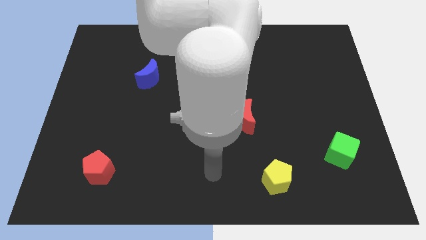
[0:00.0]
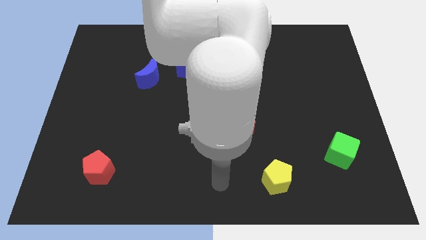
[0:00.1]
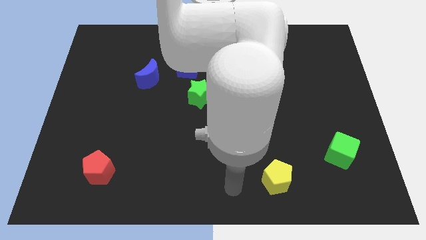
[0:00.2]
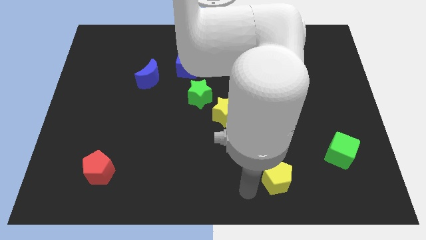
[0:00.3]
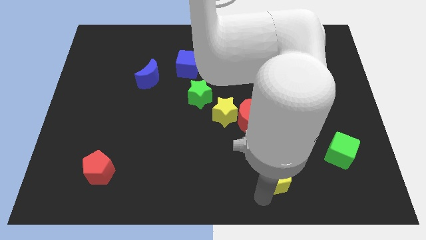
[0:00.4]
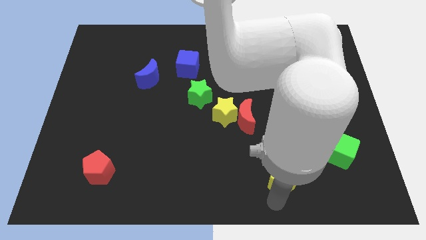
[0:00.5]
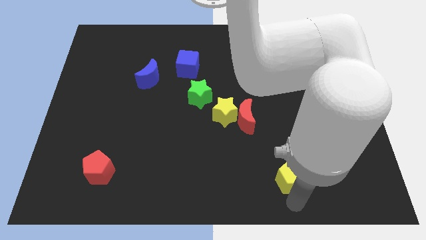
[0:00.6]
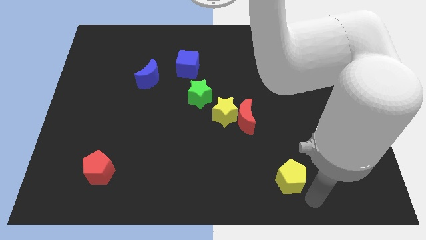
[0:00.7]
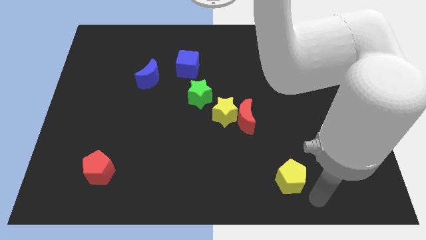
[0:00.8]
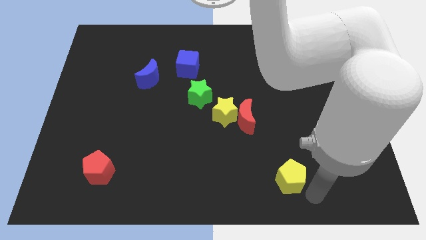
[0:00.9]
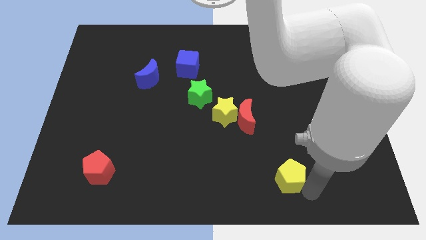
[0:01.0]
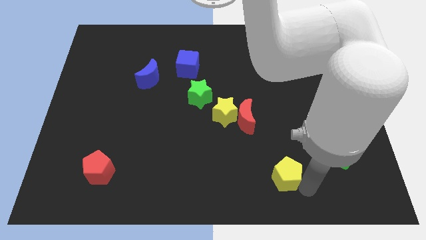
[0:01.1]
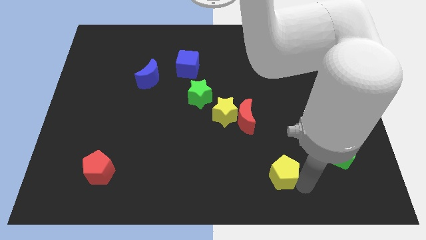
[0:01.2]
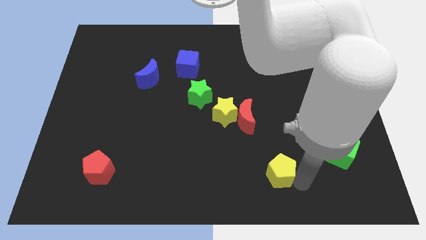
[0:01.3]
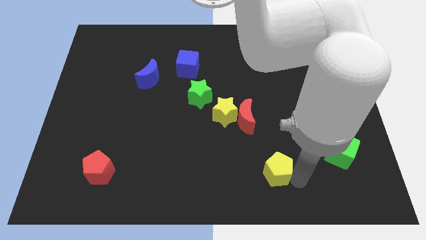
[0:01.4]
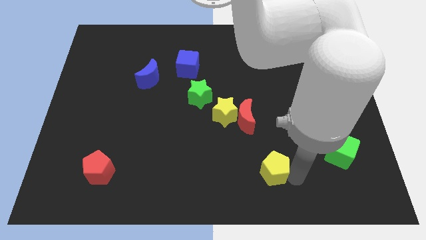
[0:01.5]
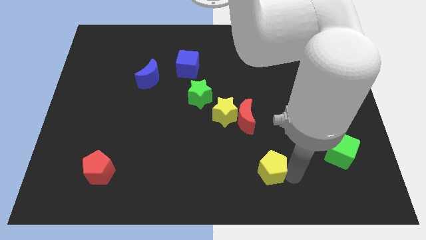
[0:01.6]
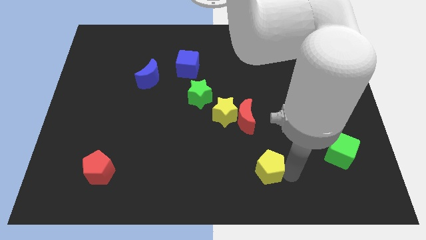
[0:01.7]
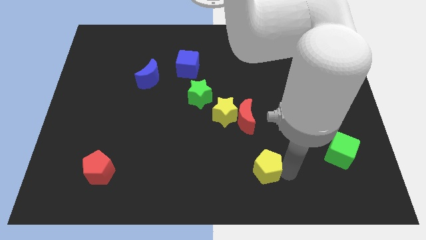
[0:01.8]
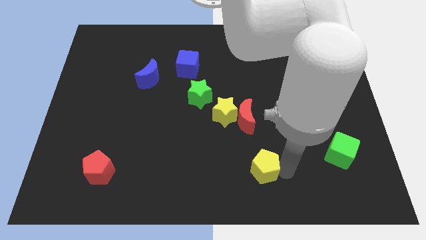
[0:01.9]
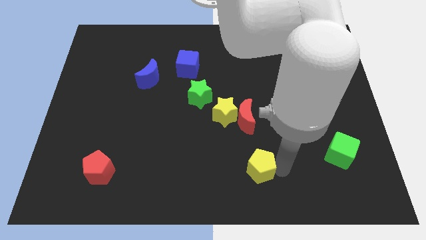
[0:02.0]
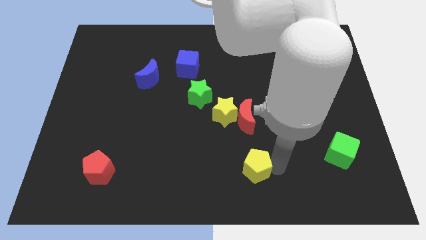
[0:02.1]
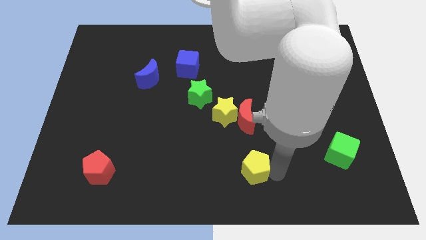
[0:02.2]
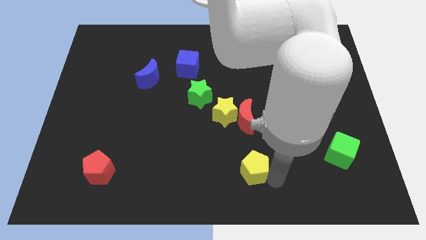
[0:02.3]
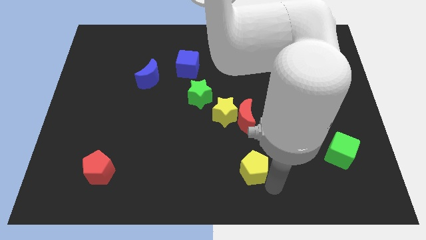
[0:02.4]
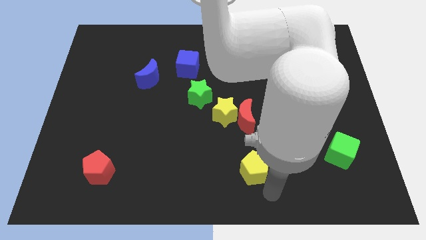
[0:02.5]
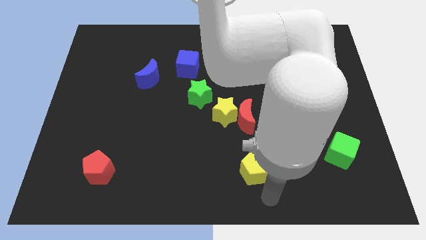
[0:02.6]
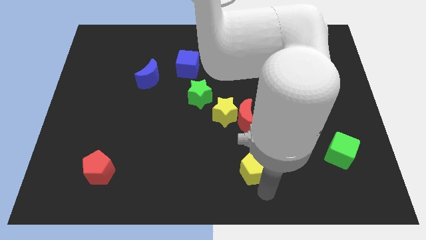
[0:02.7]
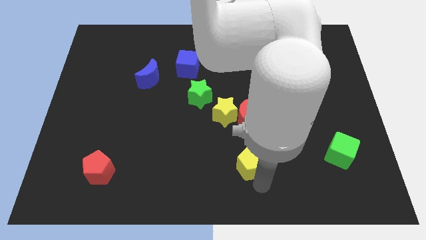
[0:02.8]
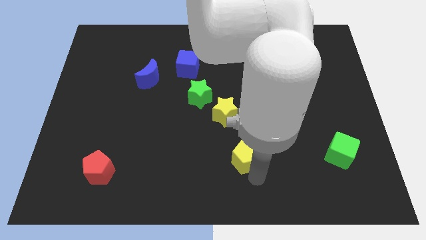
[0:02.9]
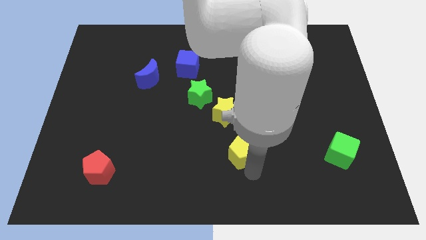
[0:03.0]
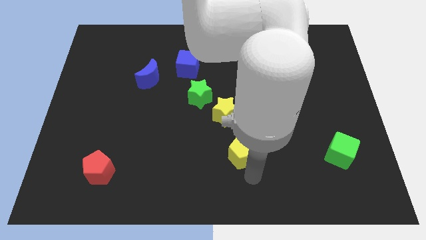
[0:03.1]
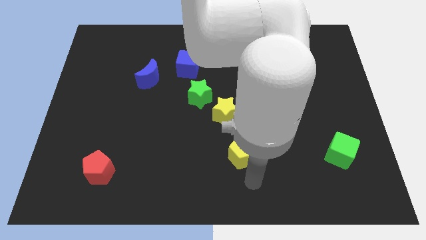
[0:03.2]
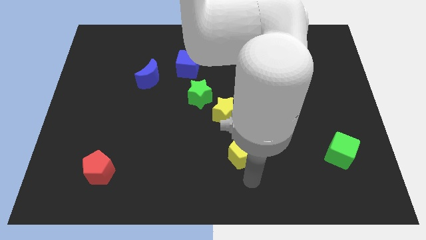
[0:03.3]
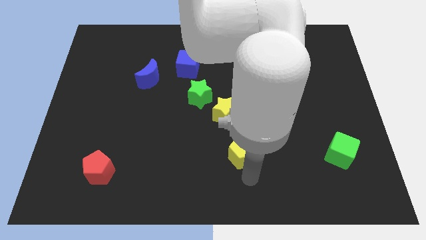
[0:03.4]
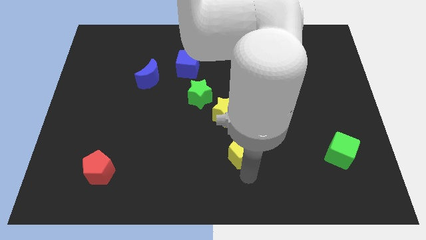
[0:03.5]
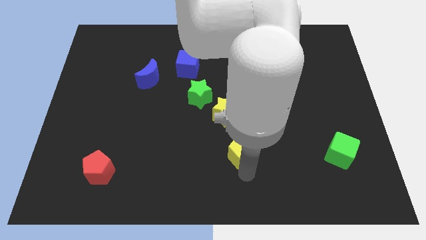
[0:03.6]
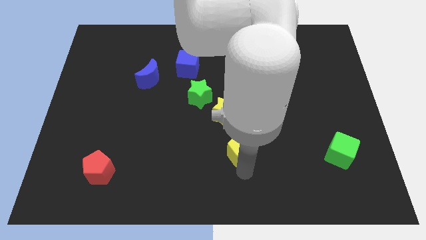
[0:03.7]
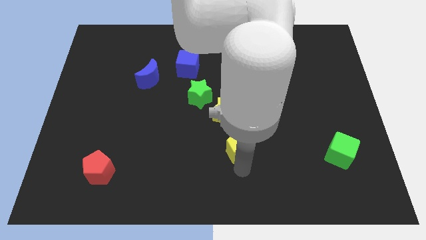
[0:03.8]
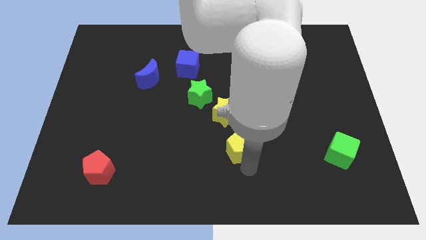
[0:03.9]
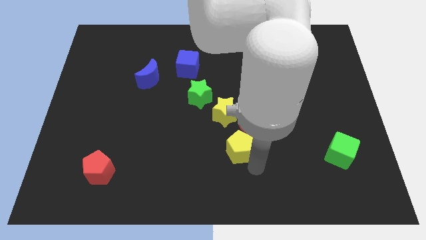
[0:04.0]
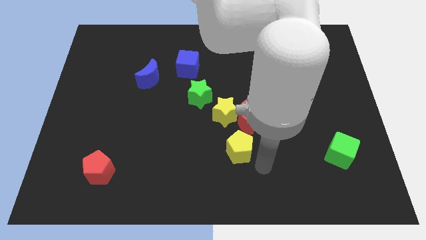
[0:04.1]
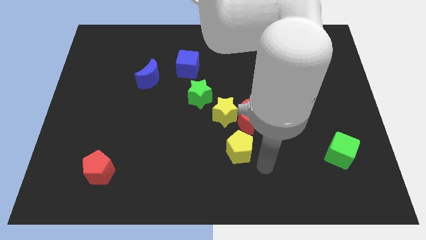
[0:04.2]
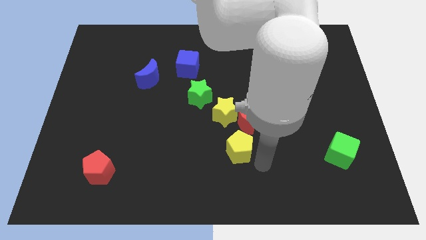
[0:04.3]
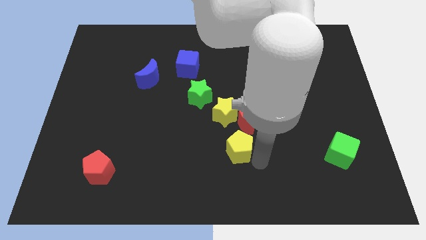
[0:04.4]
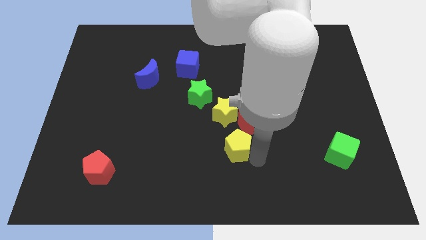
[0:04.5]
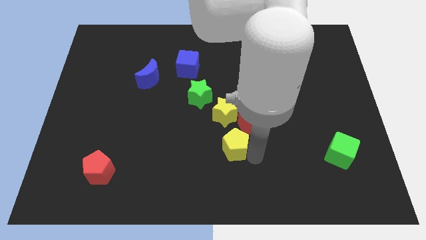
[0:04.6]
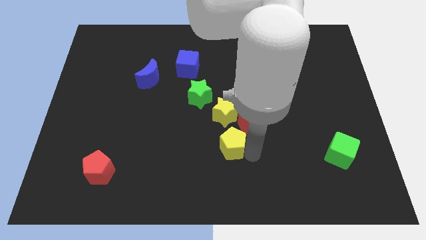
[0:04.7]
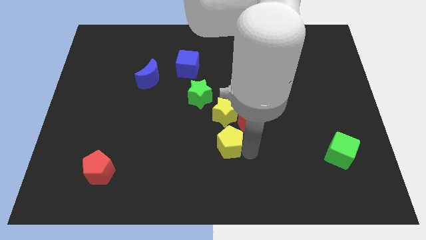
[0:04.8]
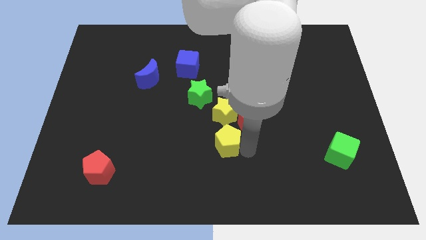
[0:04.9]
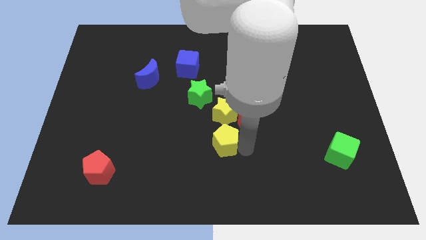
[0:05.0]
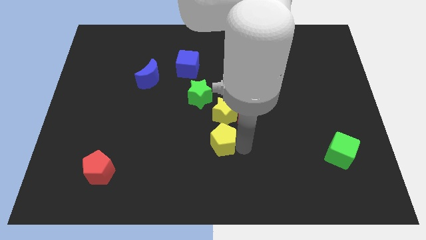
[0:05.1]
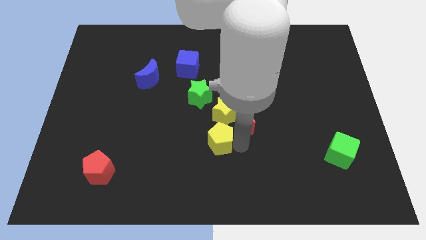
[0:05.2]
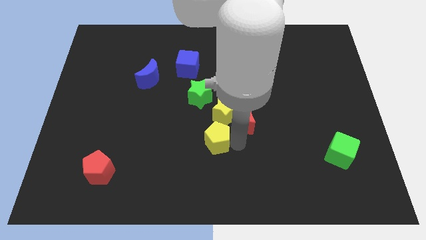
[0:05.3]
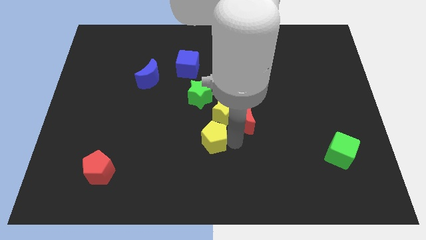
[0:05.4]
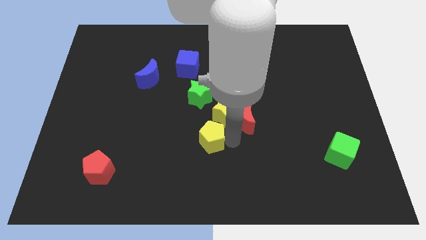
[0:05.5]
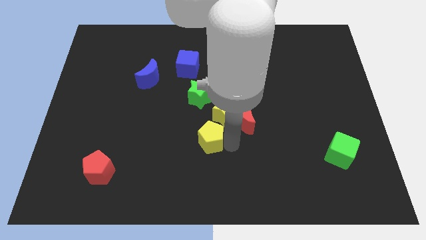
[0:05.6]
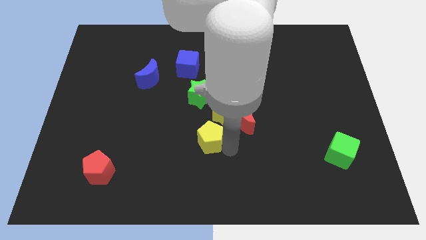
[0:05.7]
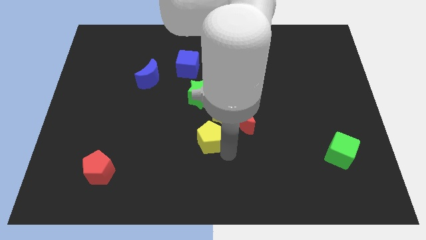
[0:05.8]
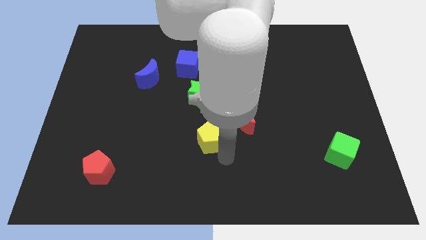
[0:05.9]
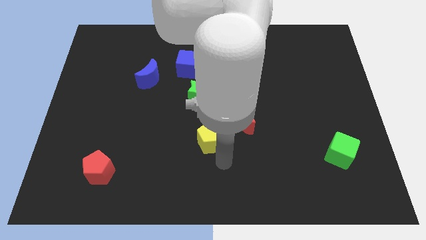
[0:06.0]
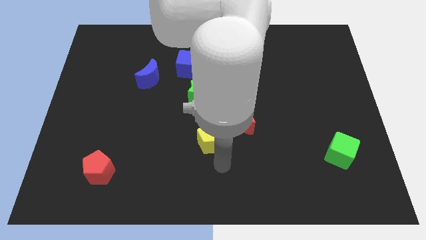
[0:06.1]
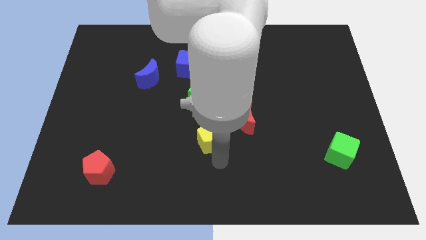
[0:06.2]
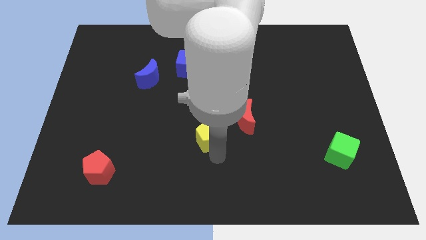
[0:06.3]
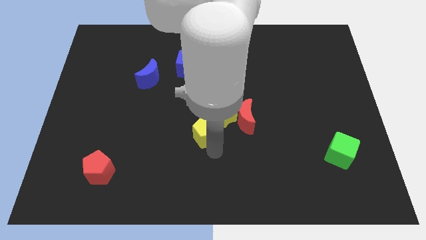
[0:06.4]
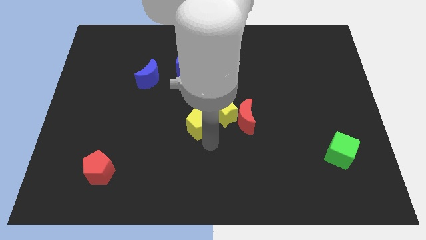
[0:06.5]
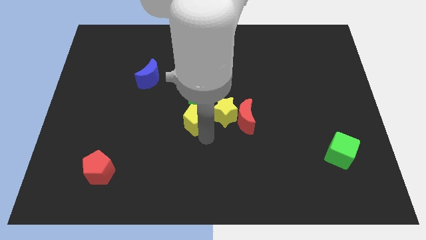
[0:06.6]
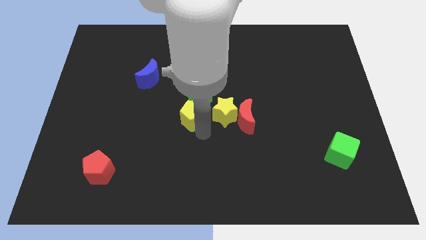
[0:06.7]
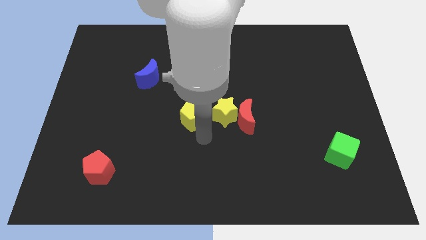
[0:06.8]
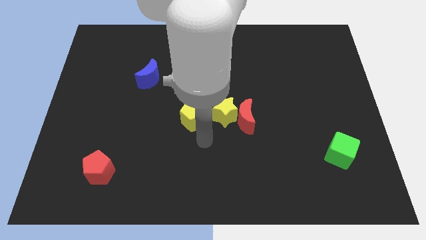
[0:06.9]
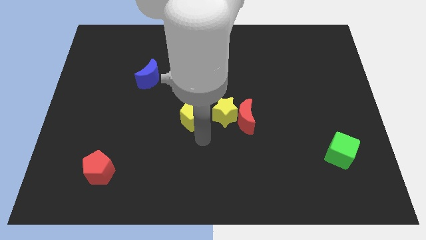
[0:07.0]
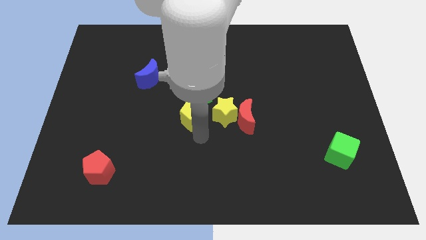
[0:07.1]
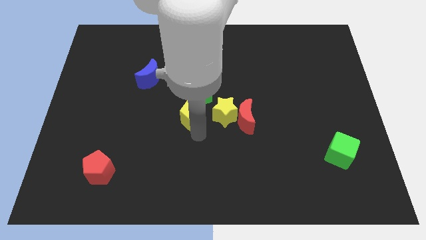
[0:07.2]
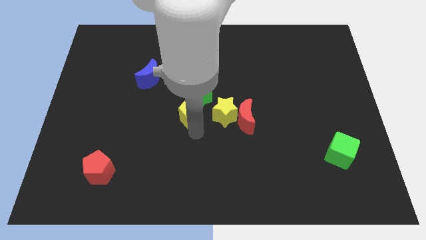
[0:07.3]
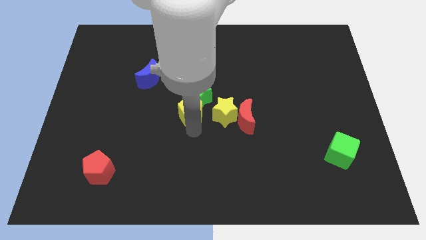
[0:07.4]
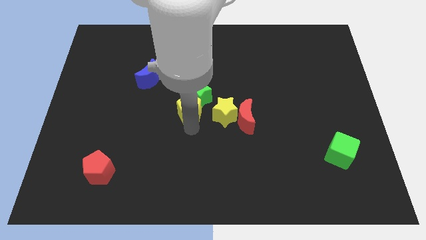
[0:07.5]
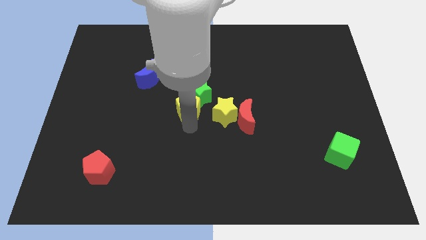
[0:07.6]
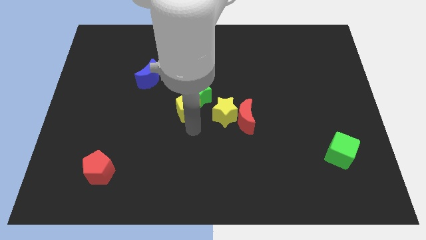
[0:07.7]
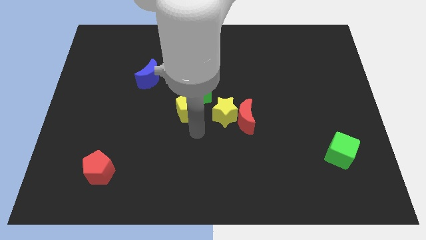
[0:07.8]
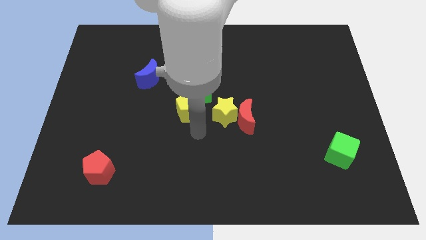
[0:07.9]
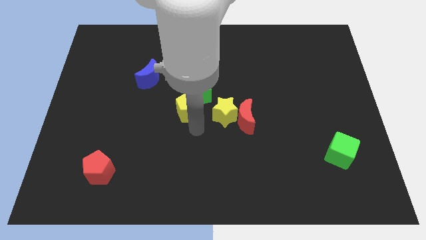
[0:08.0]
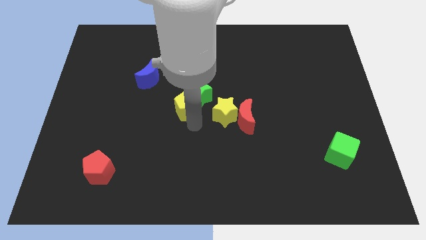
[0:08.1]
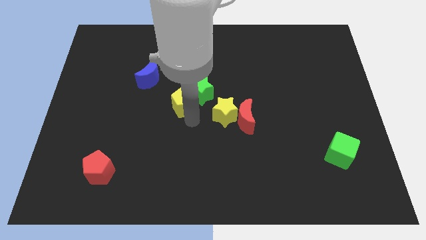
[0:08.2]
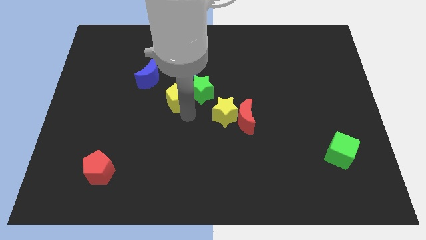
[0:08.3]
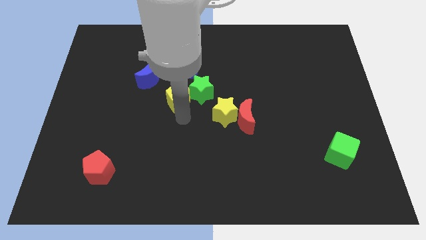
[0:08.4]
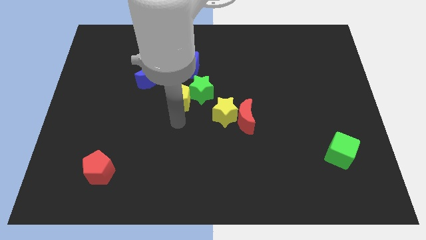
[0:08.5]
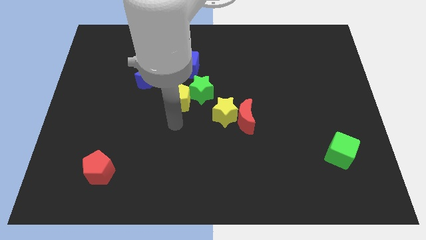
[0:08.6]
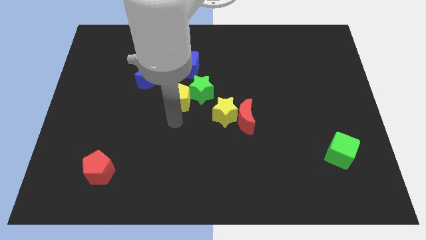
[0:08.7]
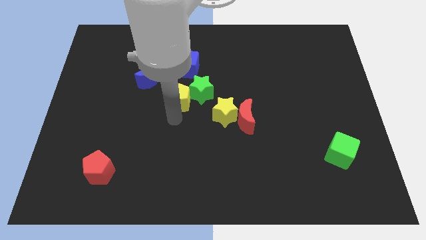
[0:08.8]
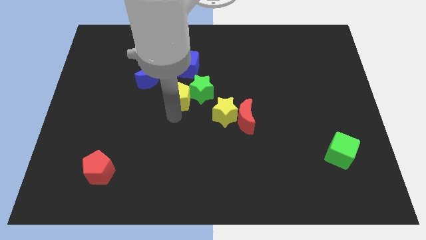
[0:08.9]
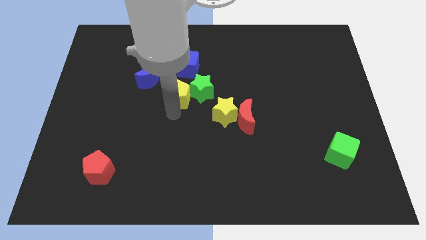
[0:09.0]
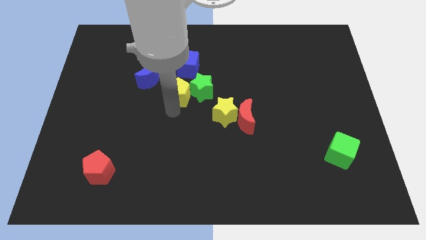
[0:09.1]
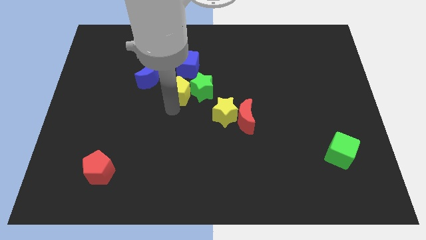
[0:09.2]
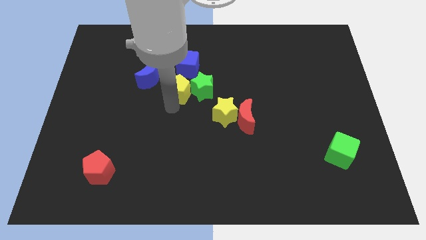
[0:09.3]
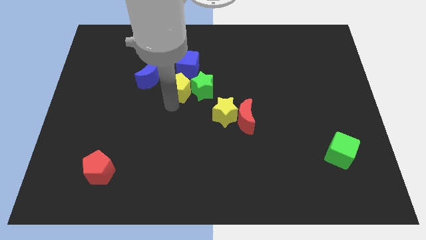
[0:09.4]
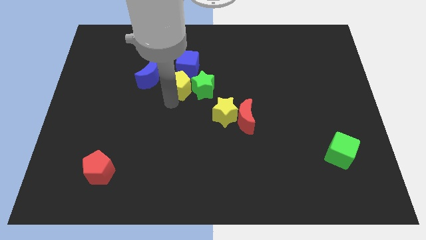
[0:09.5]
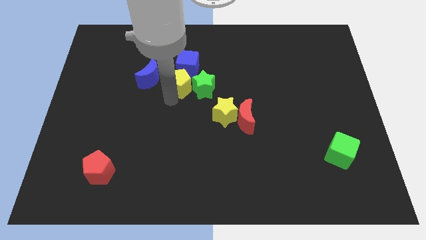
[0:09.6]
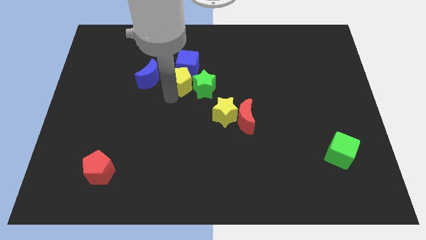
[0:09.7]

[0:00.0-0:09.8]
slide the yellow pentagon to the blue cube
